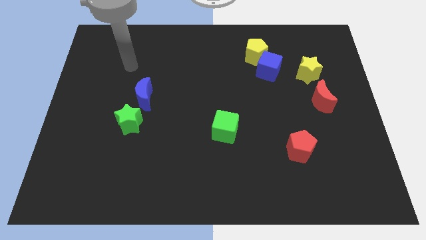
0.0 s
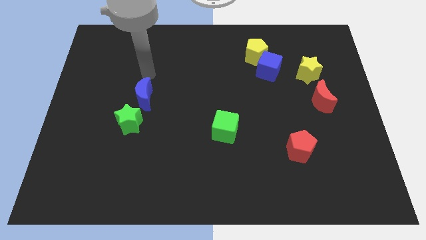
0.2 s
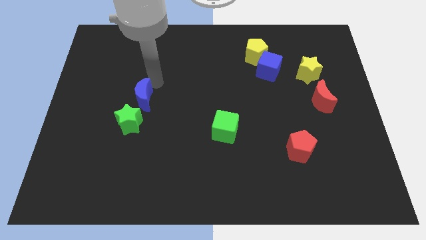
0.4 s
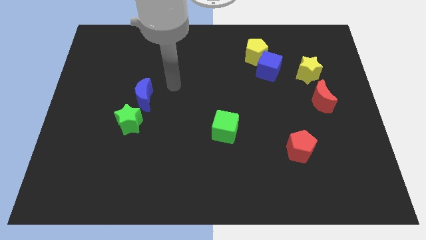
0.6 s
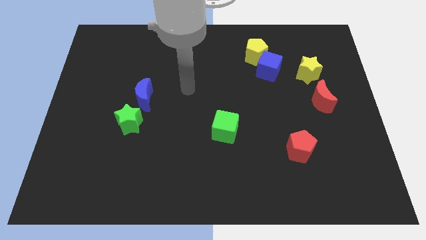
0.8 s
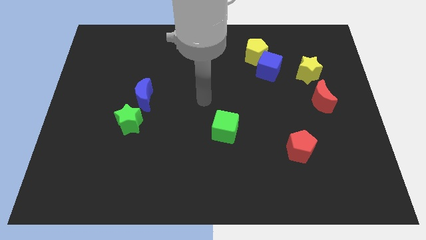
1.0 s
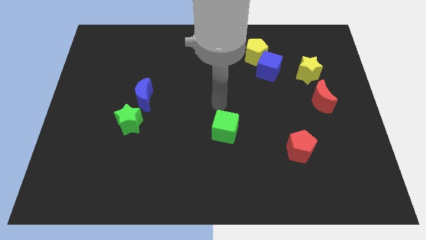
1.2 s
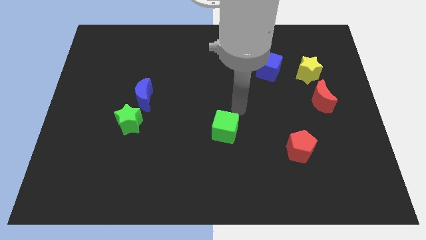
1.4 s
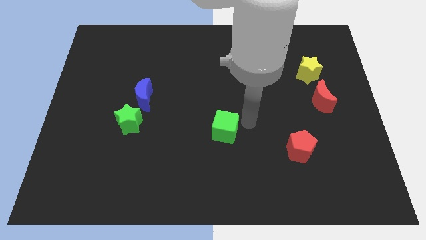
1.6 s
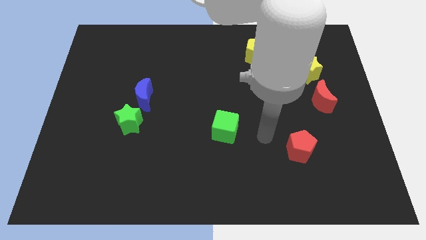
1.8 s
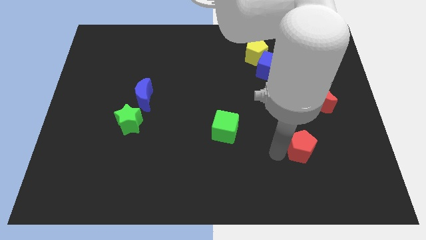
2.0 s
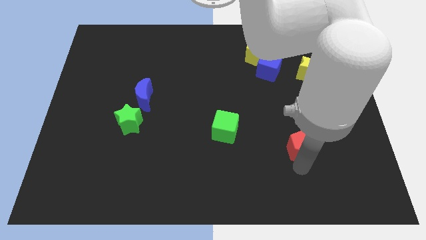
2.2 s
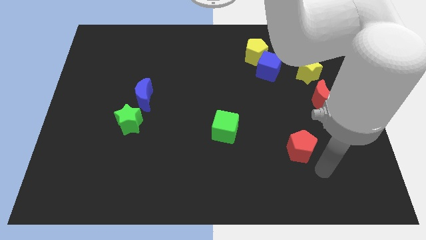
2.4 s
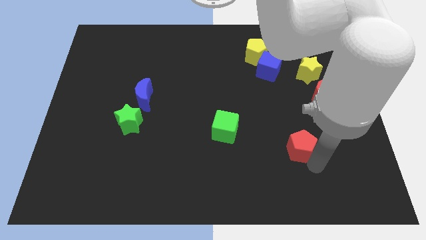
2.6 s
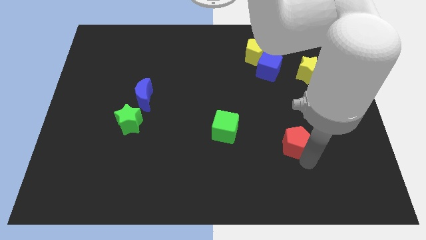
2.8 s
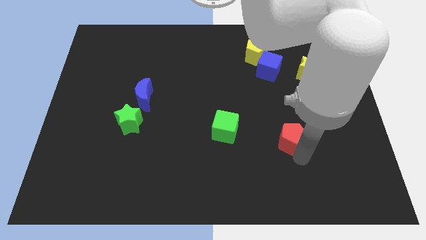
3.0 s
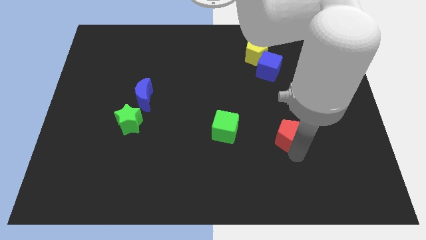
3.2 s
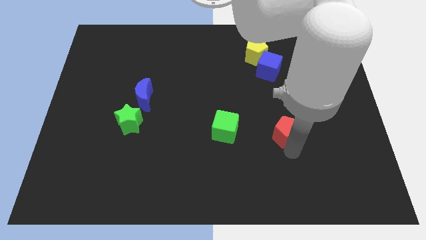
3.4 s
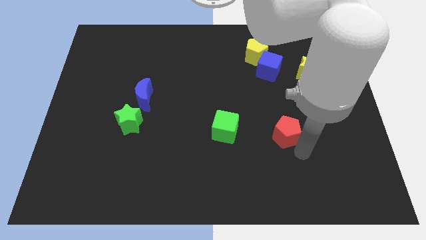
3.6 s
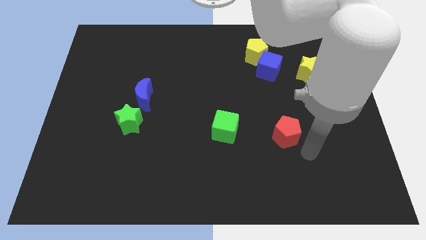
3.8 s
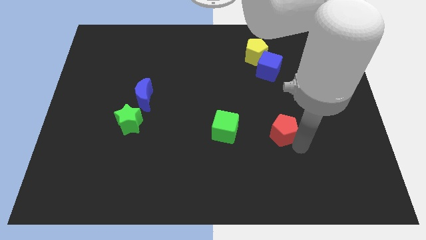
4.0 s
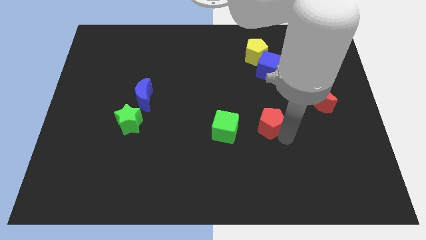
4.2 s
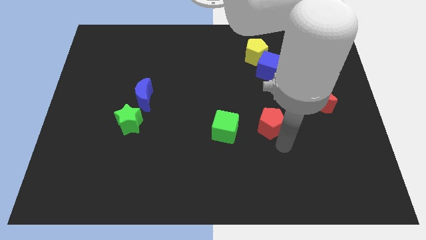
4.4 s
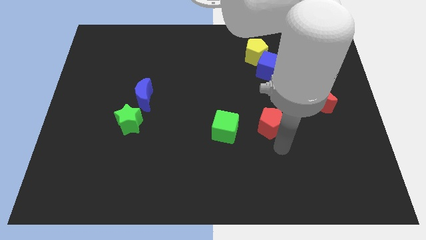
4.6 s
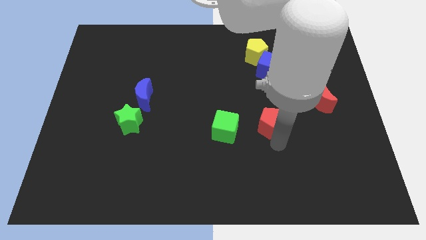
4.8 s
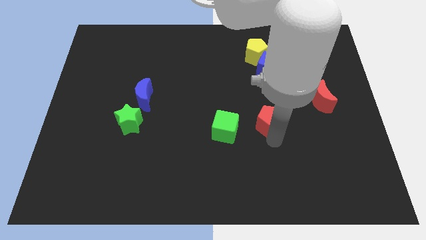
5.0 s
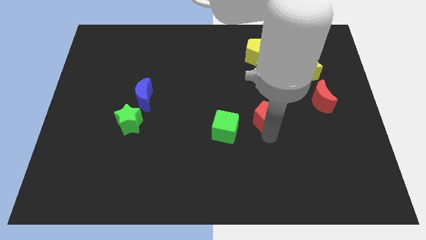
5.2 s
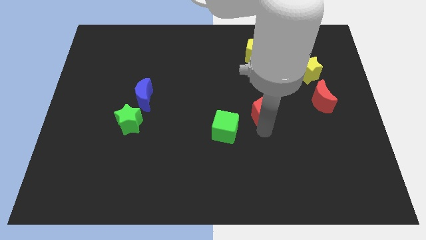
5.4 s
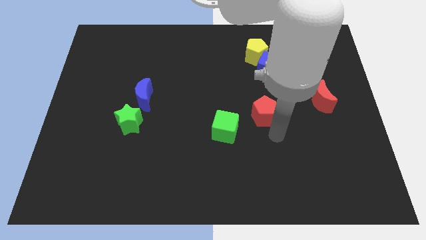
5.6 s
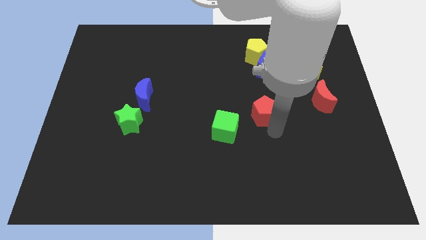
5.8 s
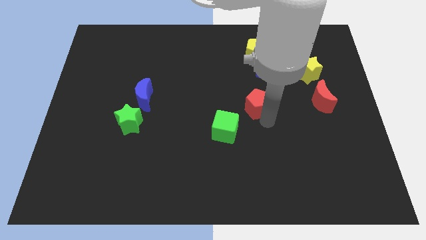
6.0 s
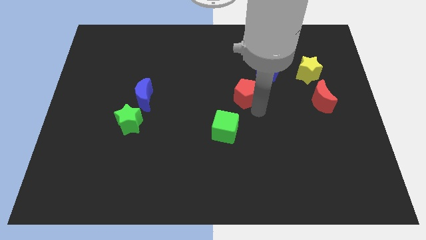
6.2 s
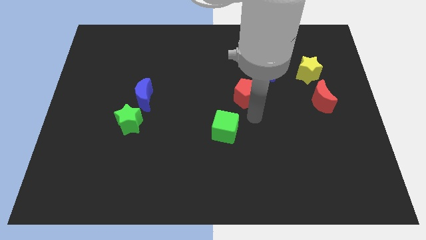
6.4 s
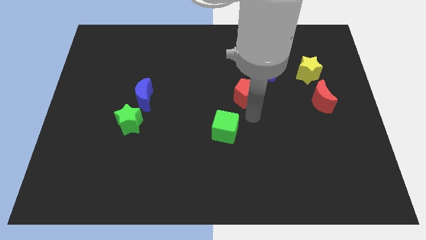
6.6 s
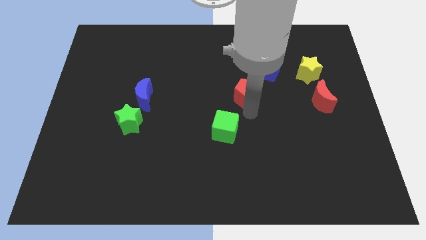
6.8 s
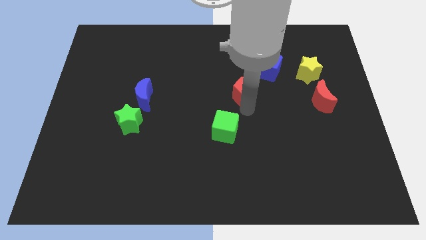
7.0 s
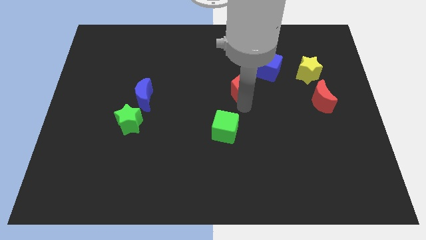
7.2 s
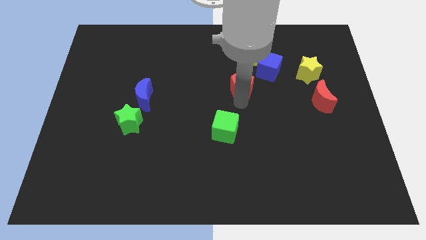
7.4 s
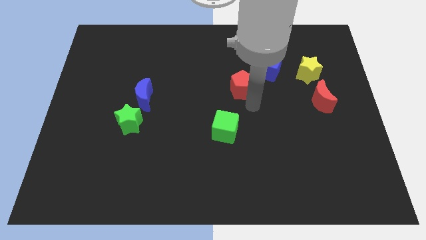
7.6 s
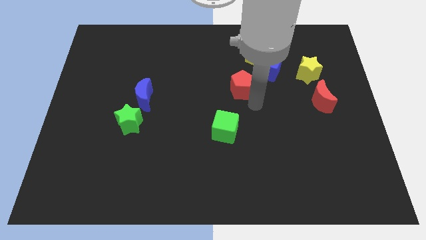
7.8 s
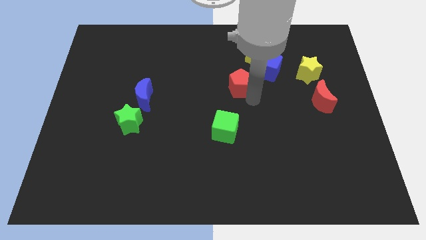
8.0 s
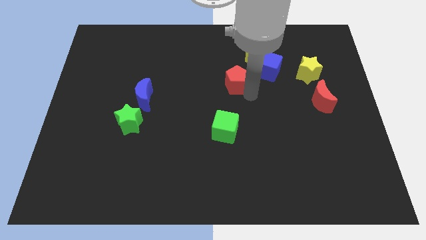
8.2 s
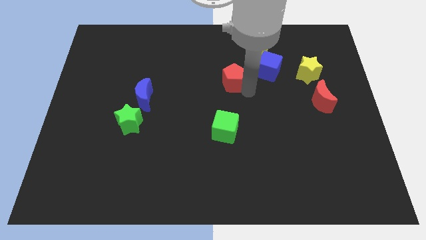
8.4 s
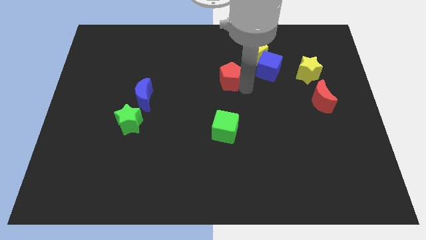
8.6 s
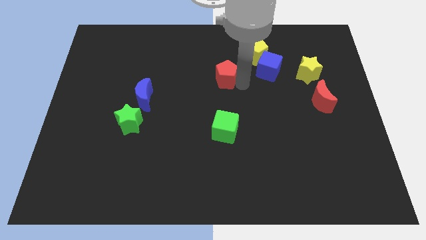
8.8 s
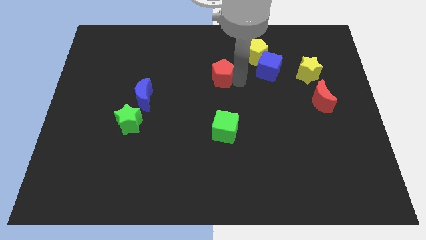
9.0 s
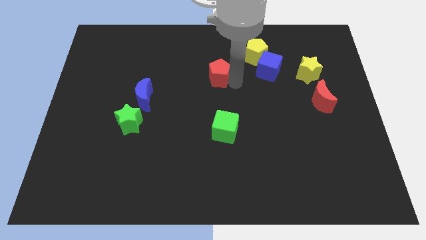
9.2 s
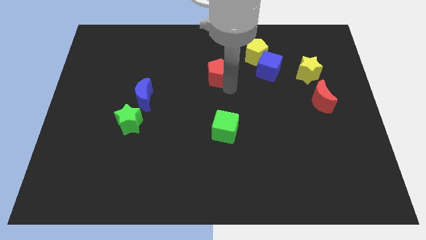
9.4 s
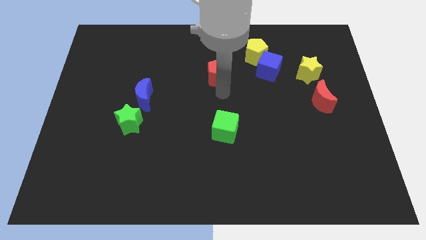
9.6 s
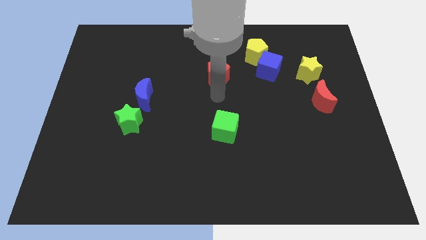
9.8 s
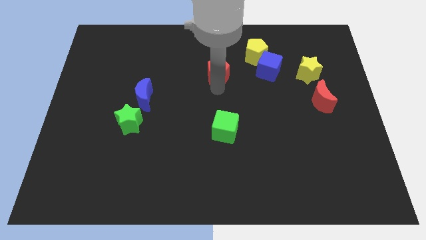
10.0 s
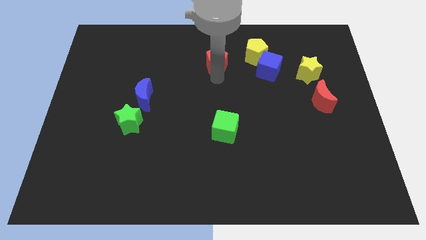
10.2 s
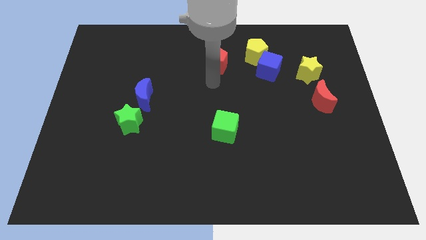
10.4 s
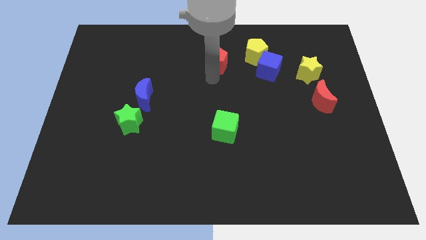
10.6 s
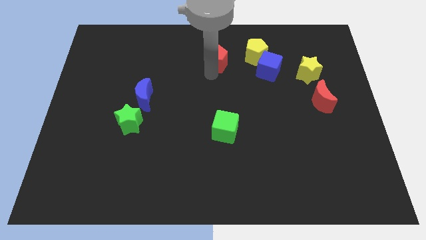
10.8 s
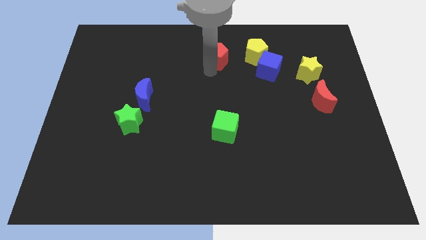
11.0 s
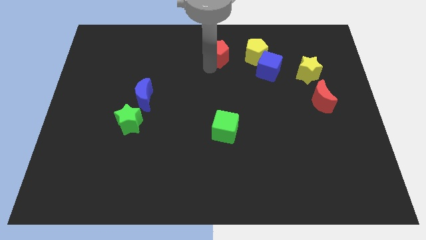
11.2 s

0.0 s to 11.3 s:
put the red pentagon to the top side

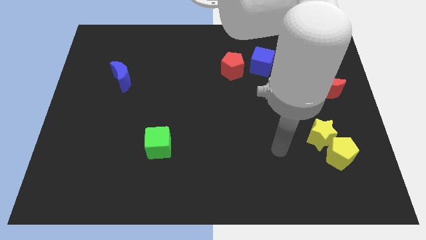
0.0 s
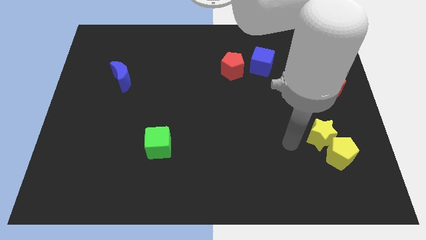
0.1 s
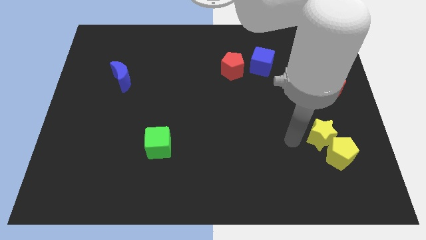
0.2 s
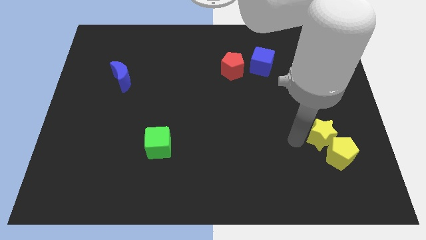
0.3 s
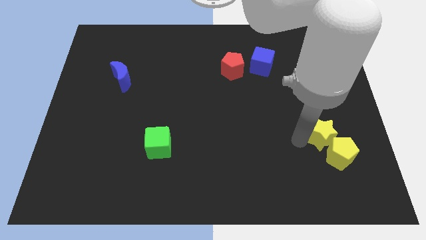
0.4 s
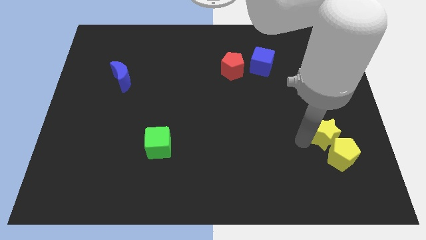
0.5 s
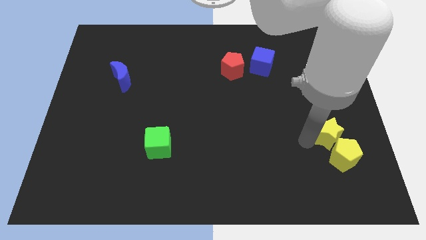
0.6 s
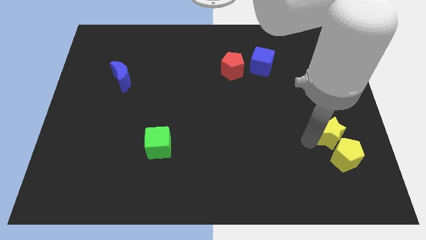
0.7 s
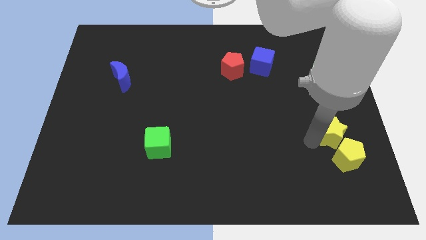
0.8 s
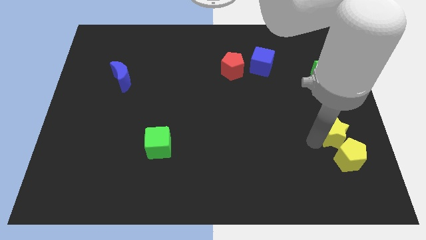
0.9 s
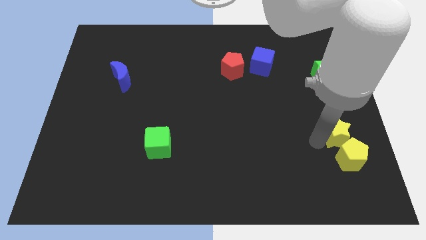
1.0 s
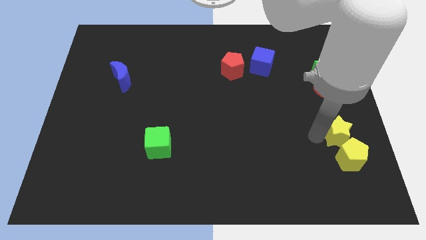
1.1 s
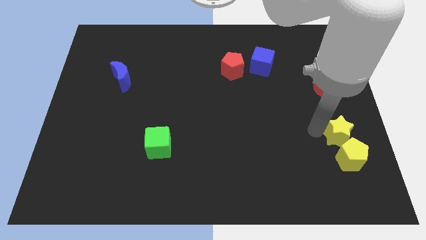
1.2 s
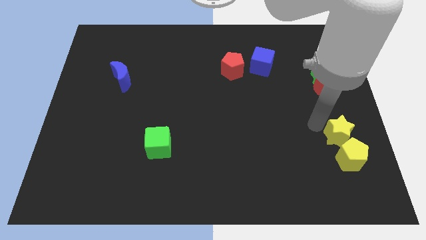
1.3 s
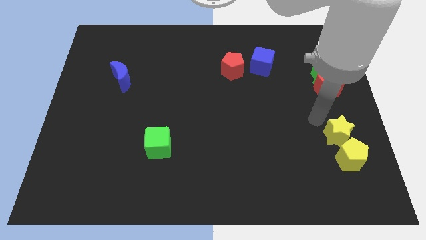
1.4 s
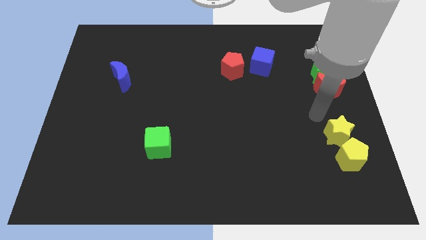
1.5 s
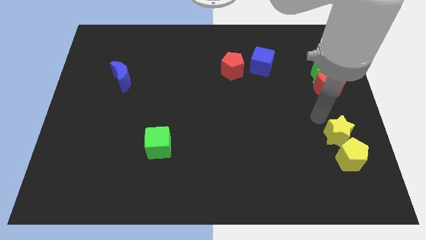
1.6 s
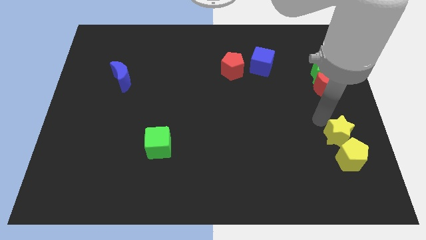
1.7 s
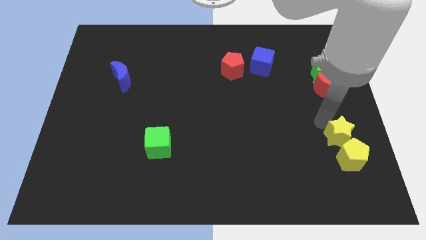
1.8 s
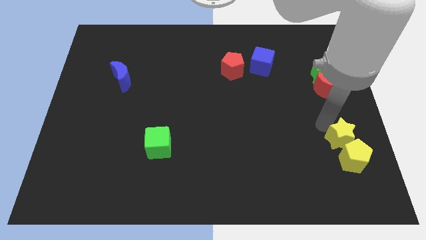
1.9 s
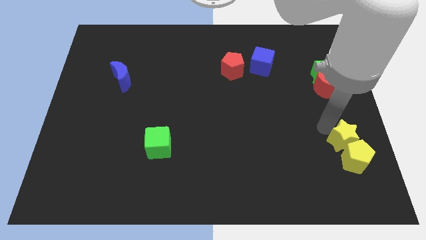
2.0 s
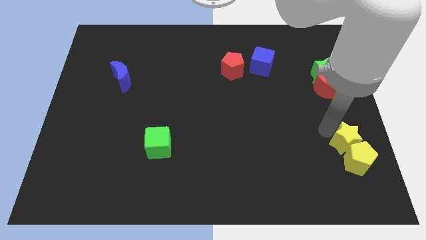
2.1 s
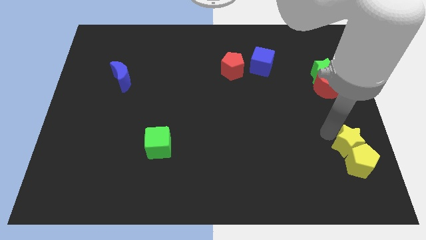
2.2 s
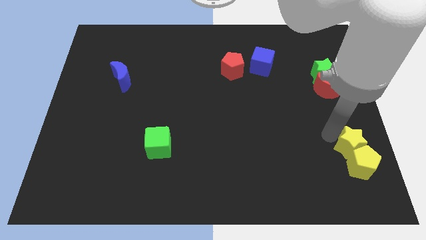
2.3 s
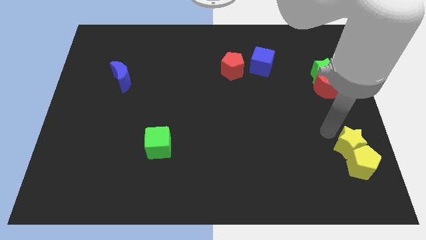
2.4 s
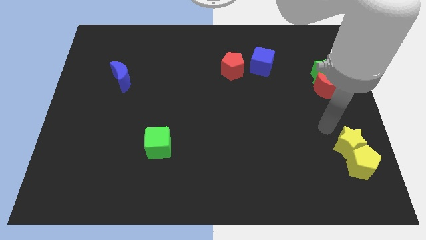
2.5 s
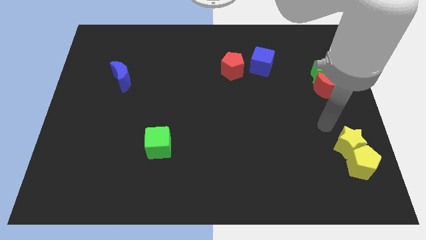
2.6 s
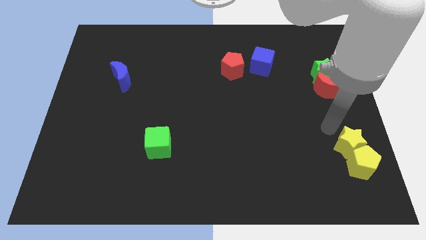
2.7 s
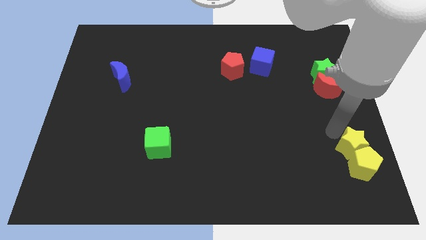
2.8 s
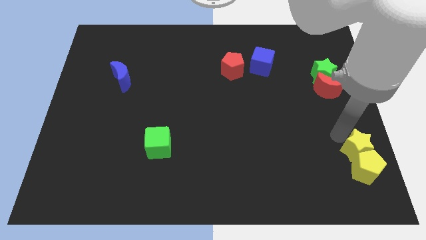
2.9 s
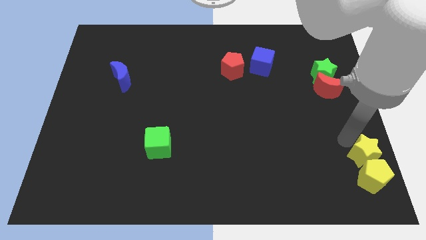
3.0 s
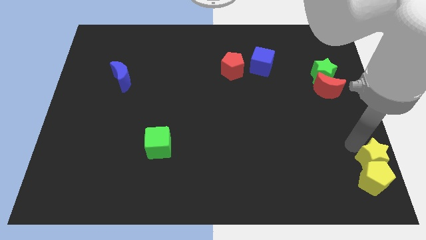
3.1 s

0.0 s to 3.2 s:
push the yellow star to the lower right corner
